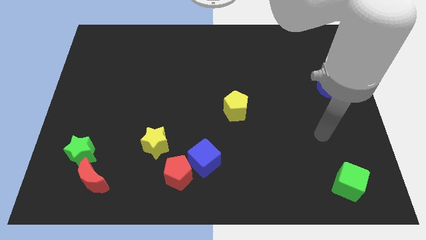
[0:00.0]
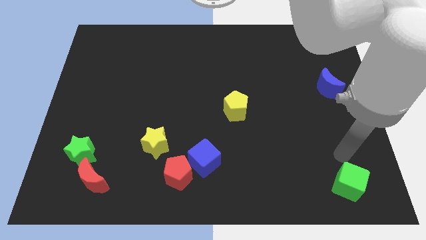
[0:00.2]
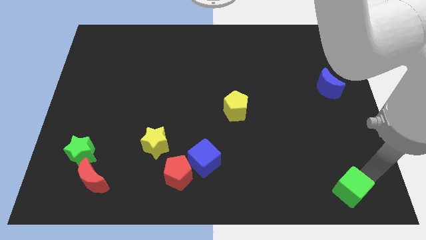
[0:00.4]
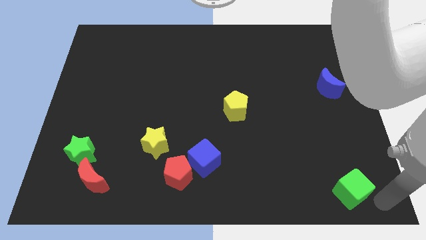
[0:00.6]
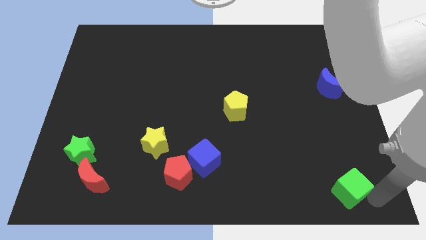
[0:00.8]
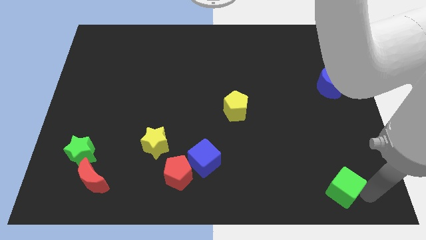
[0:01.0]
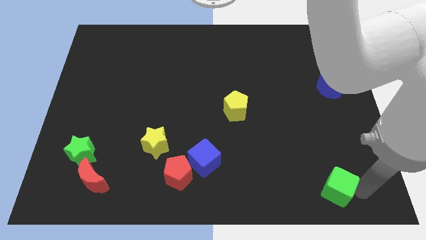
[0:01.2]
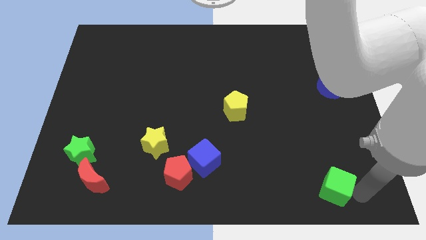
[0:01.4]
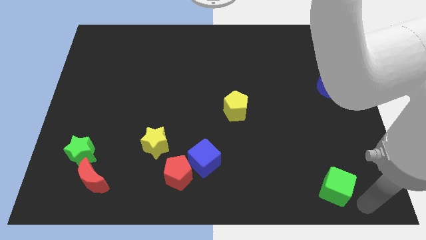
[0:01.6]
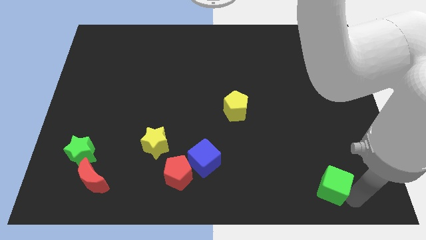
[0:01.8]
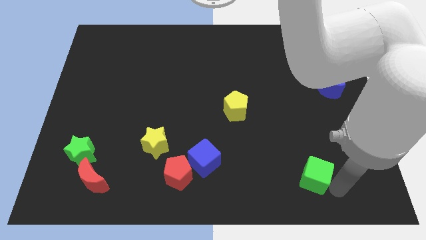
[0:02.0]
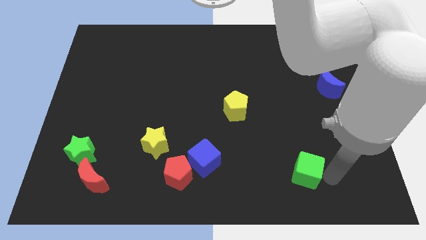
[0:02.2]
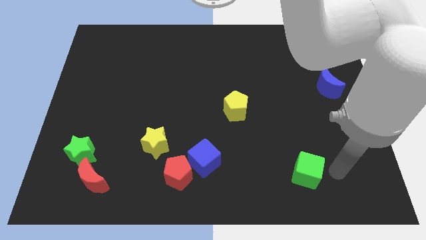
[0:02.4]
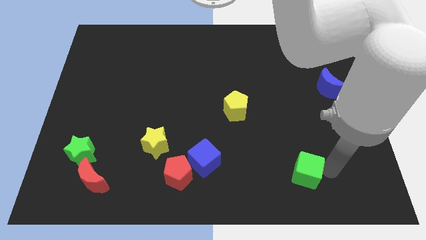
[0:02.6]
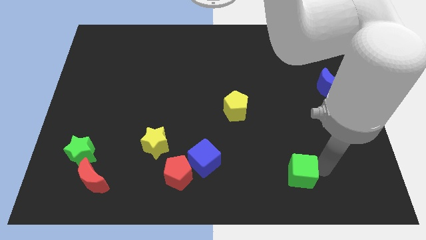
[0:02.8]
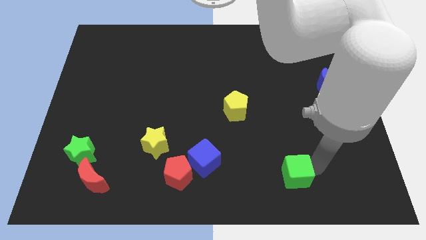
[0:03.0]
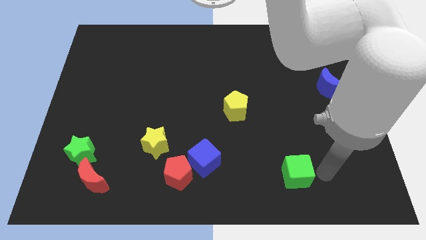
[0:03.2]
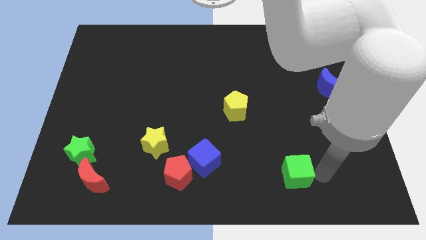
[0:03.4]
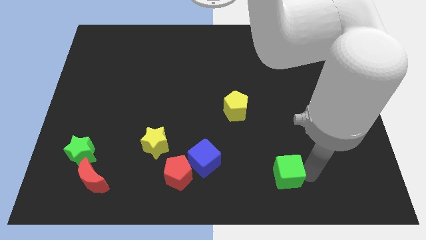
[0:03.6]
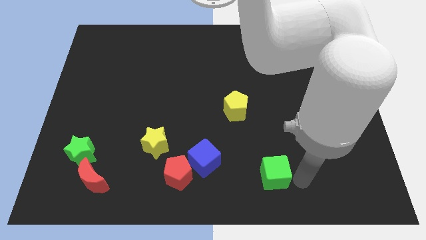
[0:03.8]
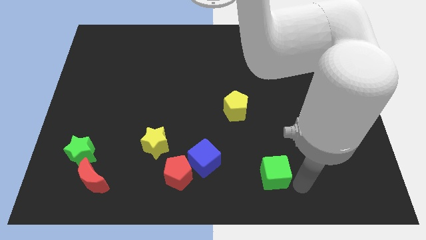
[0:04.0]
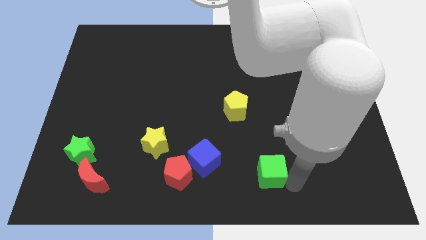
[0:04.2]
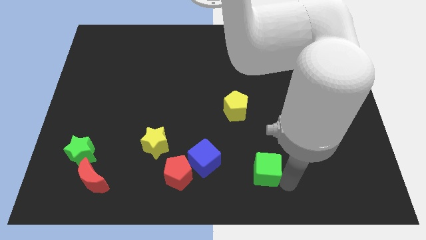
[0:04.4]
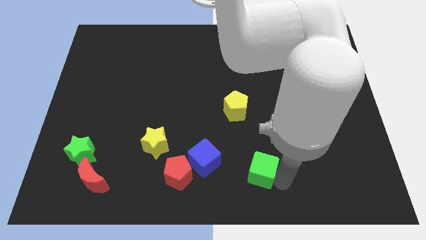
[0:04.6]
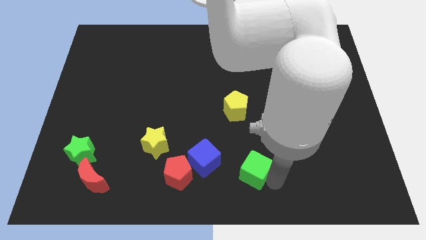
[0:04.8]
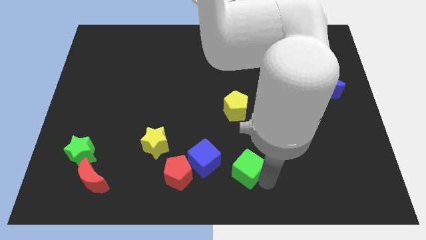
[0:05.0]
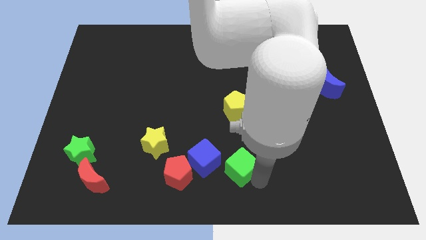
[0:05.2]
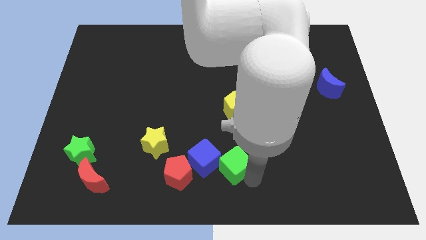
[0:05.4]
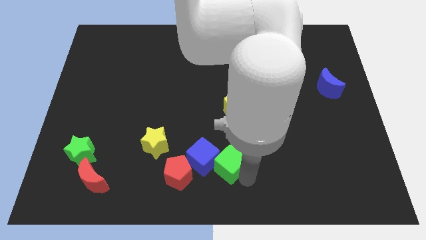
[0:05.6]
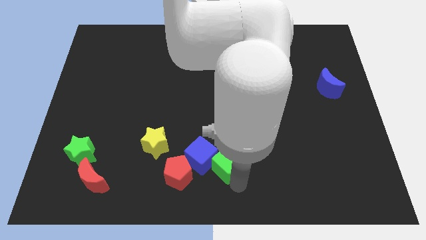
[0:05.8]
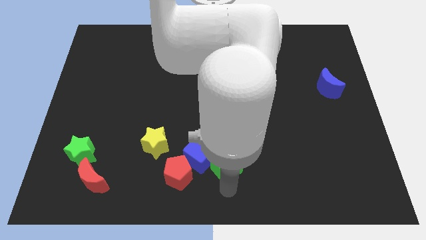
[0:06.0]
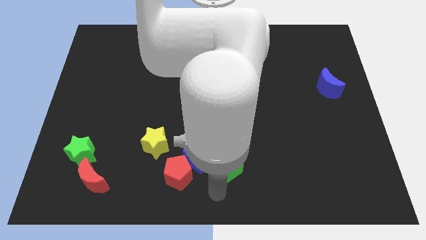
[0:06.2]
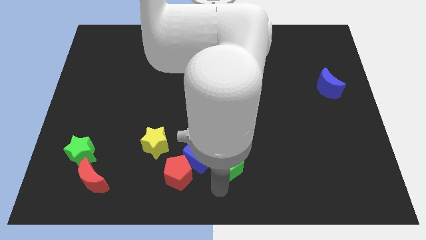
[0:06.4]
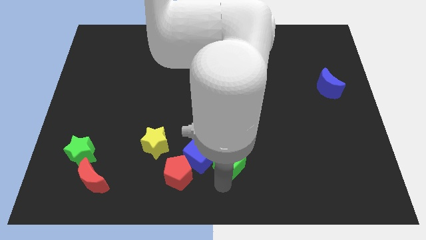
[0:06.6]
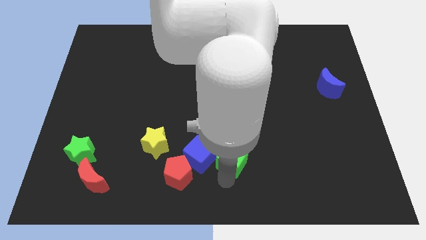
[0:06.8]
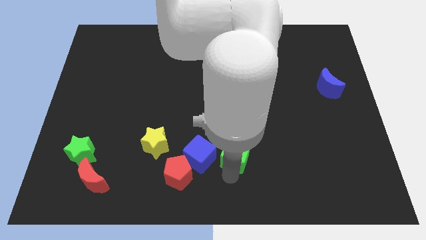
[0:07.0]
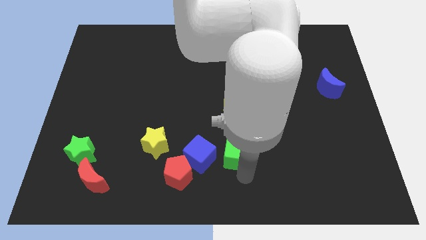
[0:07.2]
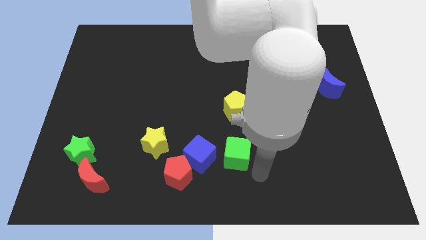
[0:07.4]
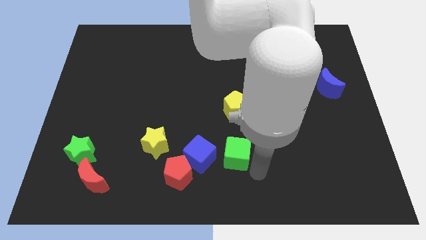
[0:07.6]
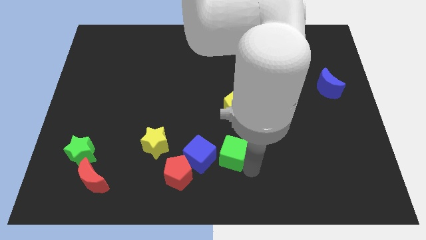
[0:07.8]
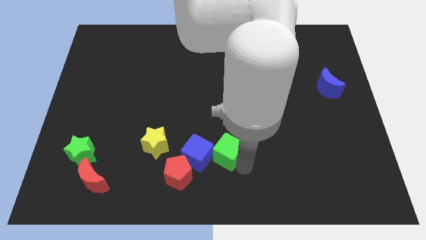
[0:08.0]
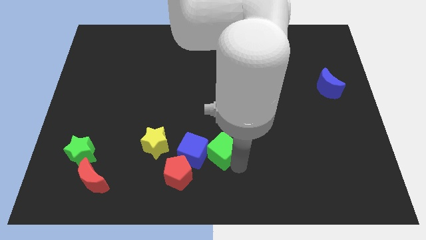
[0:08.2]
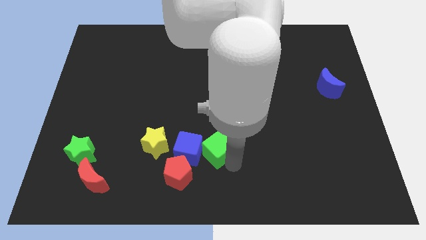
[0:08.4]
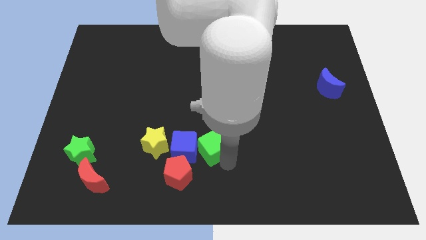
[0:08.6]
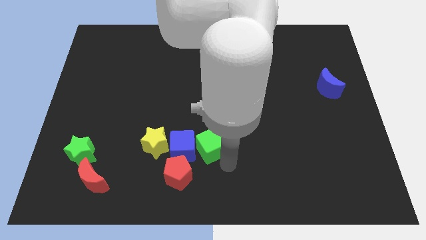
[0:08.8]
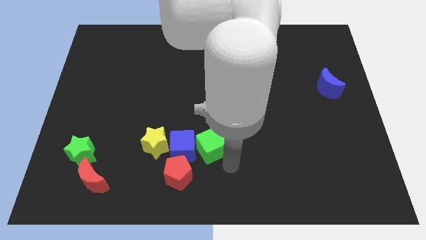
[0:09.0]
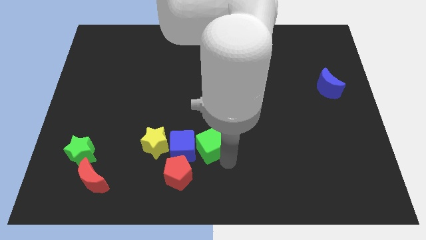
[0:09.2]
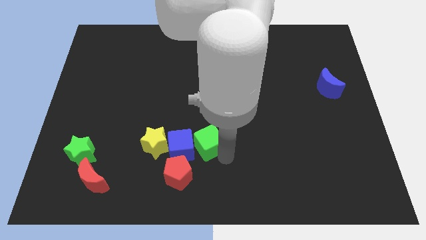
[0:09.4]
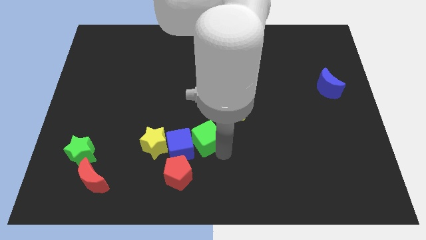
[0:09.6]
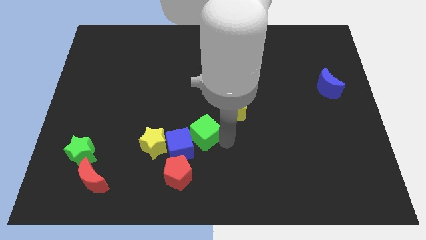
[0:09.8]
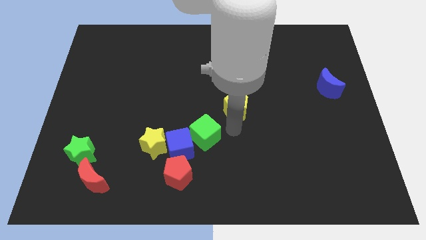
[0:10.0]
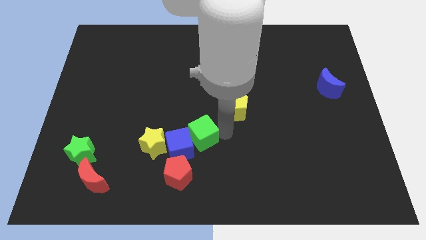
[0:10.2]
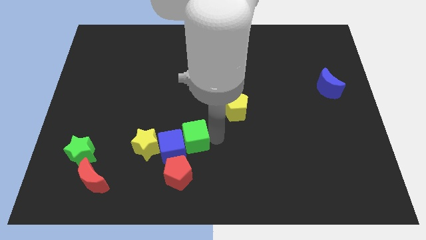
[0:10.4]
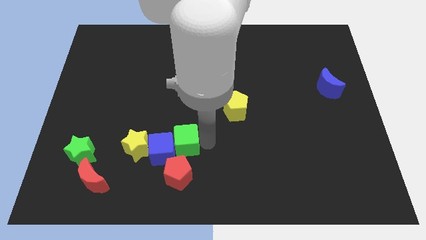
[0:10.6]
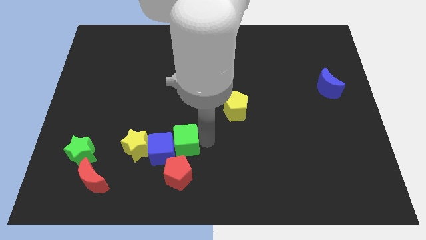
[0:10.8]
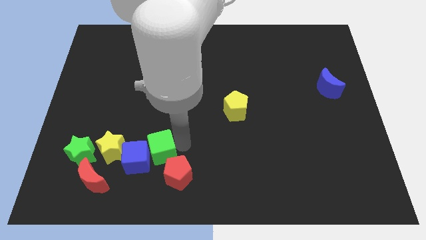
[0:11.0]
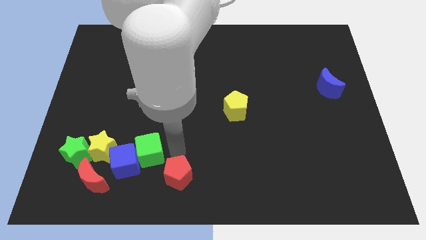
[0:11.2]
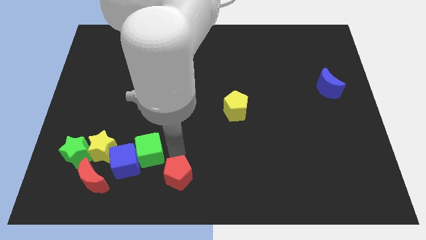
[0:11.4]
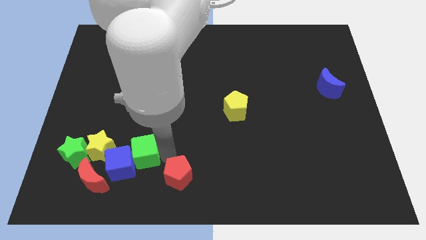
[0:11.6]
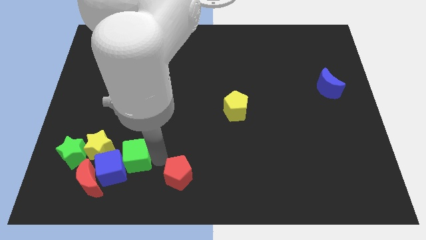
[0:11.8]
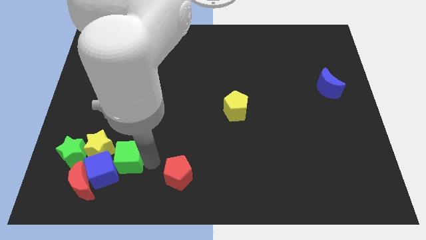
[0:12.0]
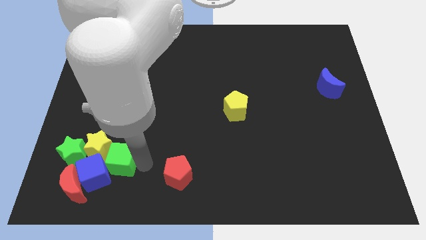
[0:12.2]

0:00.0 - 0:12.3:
slide the green cube to the yellow star

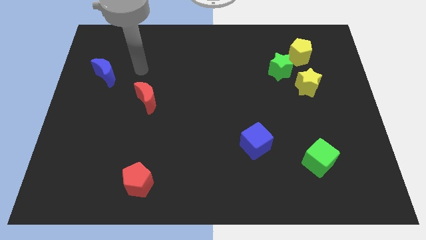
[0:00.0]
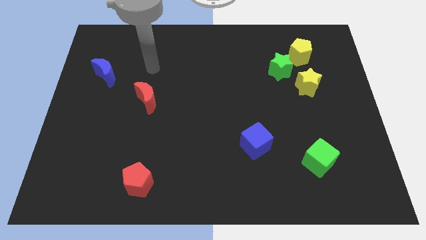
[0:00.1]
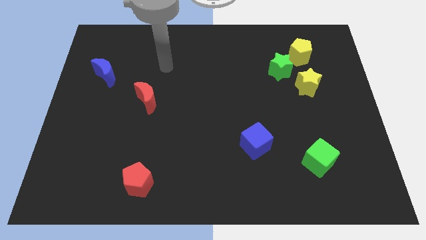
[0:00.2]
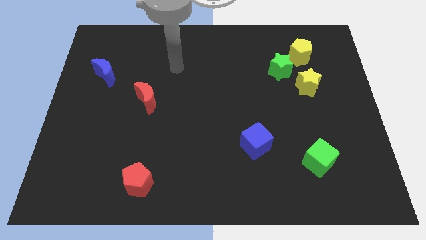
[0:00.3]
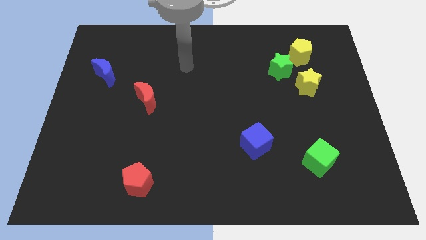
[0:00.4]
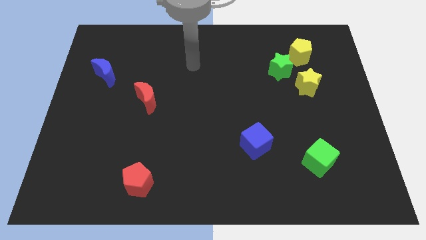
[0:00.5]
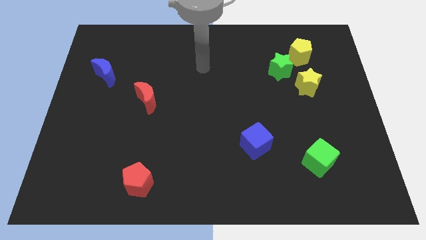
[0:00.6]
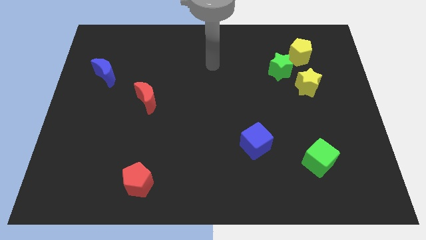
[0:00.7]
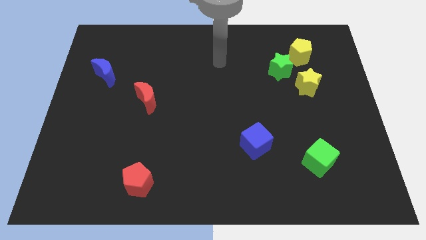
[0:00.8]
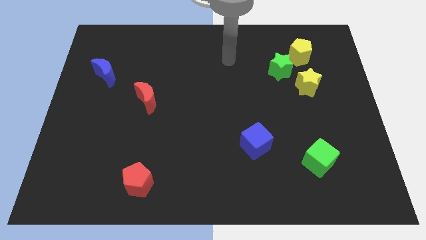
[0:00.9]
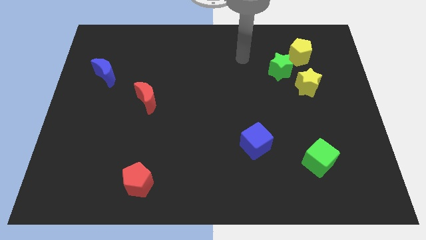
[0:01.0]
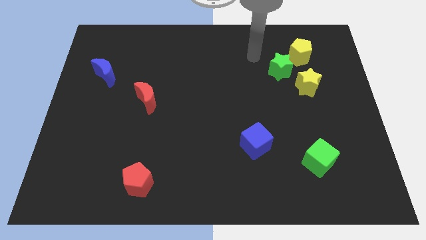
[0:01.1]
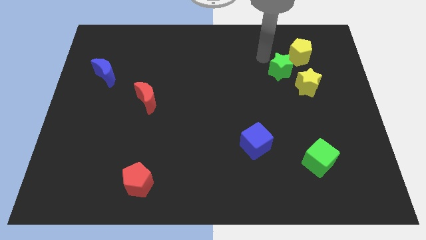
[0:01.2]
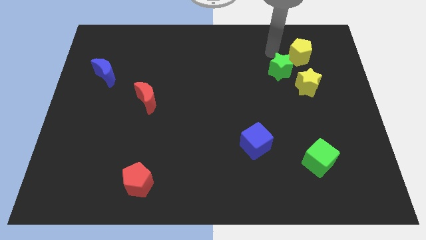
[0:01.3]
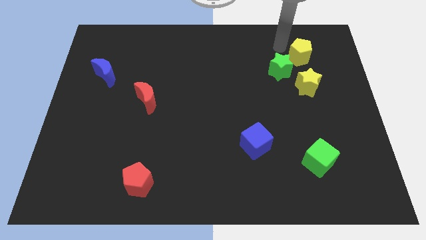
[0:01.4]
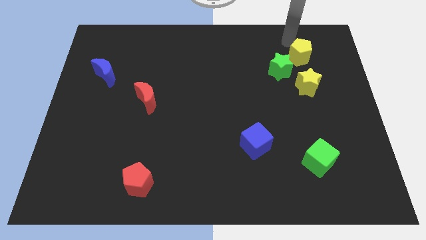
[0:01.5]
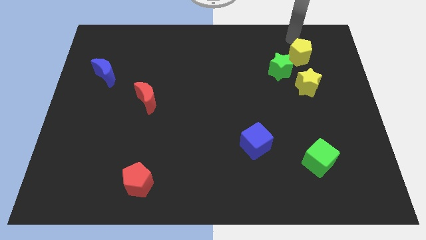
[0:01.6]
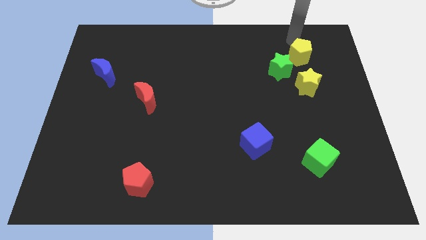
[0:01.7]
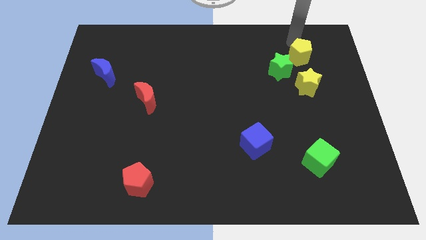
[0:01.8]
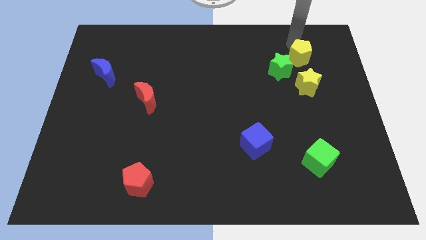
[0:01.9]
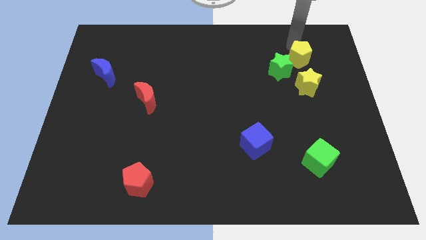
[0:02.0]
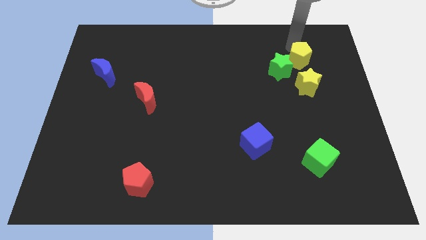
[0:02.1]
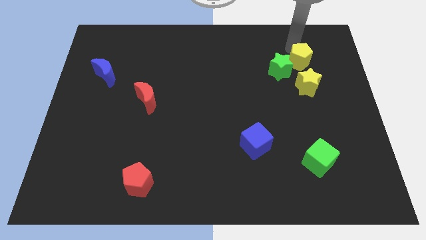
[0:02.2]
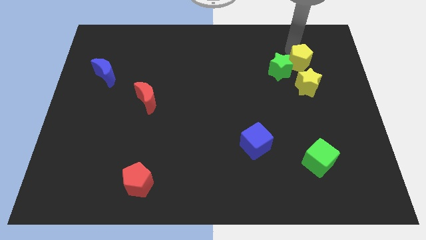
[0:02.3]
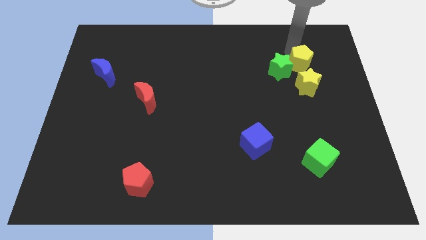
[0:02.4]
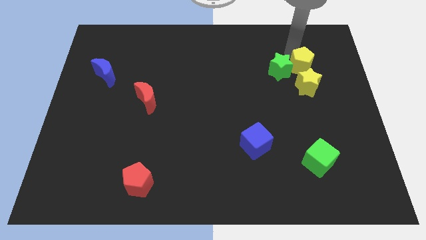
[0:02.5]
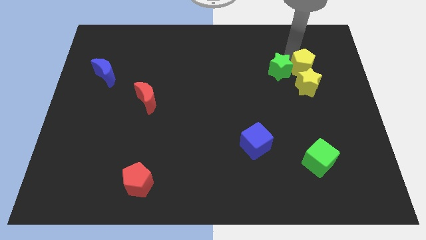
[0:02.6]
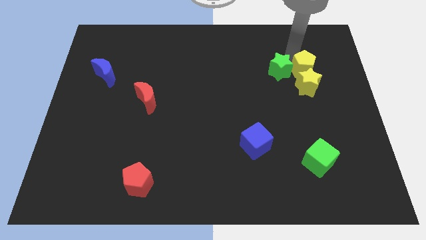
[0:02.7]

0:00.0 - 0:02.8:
push the yellow pentagon next to the yellow star
